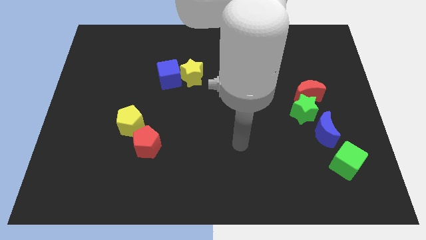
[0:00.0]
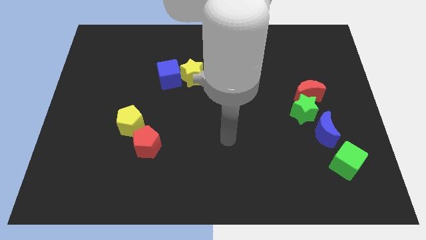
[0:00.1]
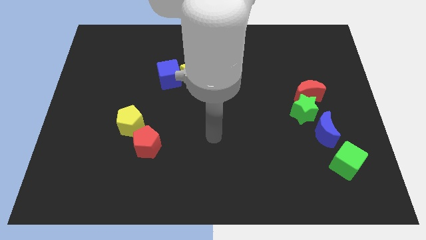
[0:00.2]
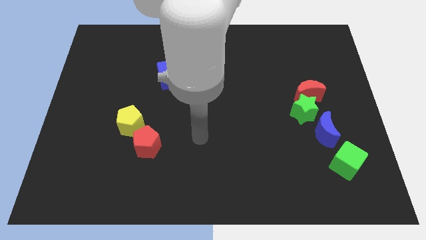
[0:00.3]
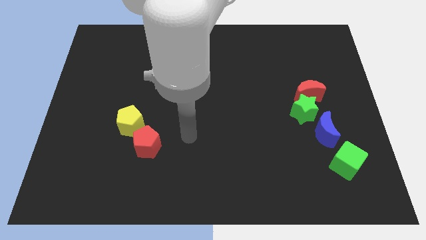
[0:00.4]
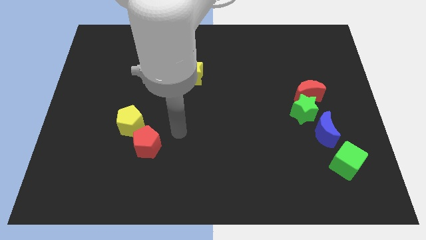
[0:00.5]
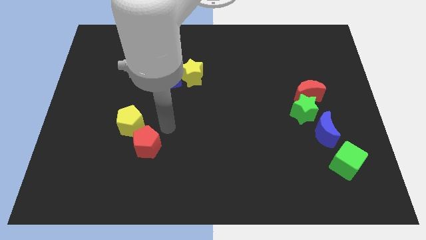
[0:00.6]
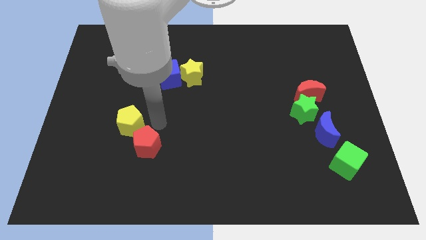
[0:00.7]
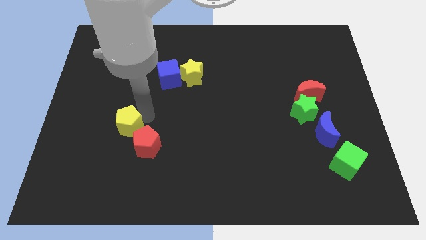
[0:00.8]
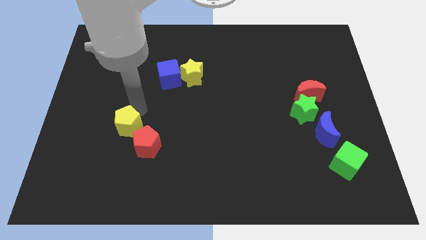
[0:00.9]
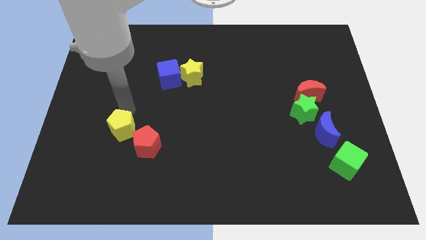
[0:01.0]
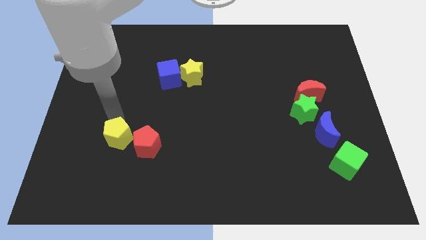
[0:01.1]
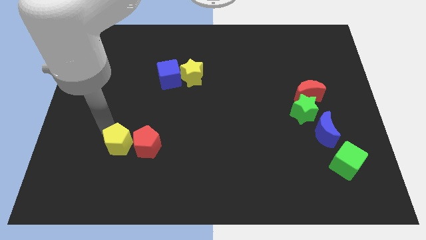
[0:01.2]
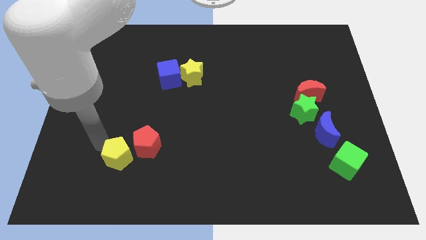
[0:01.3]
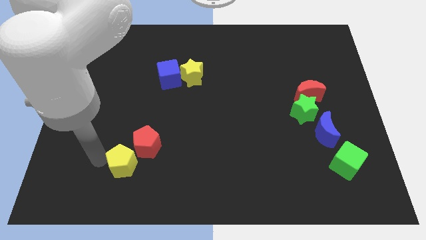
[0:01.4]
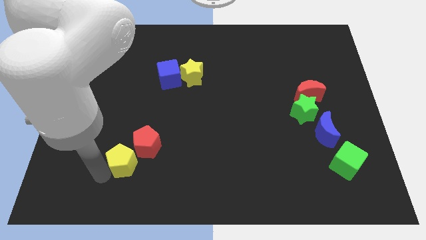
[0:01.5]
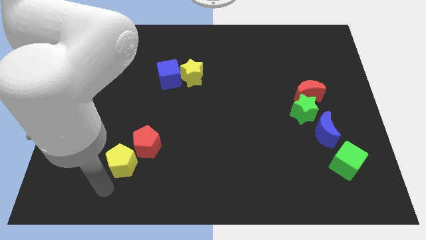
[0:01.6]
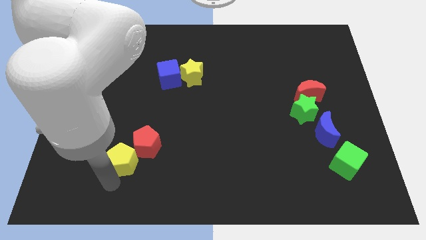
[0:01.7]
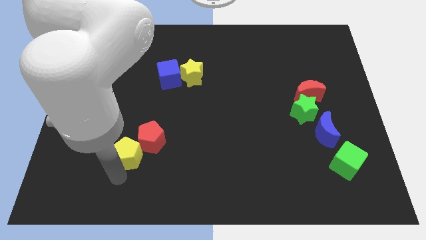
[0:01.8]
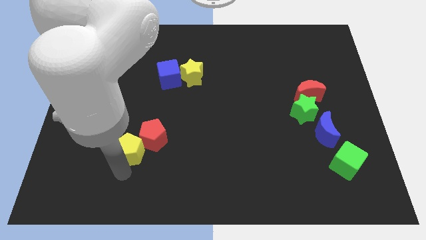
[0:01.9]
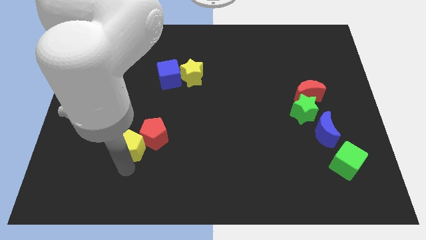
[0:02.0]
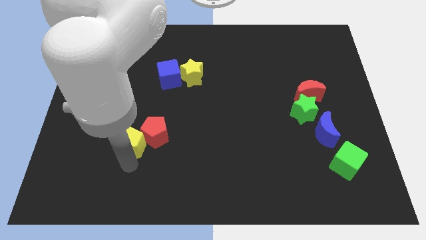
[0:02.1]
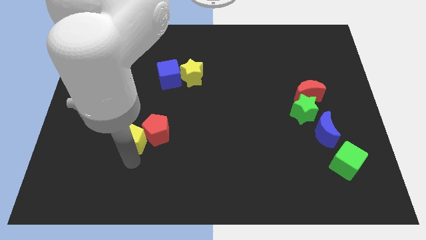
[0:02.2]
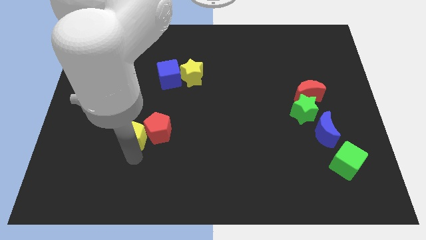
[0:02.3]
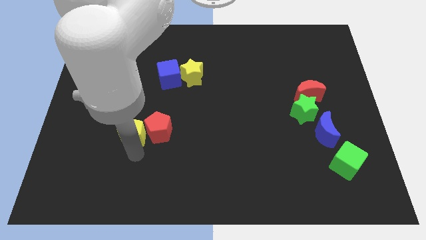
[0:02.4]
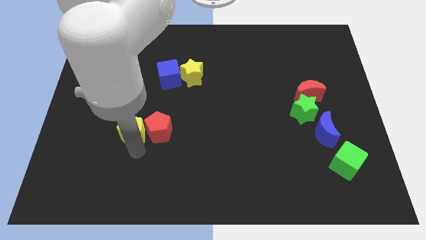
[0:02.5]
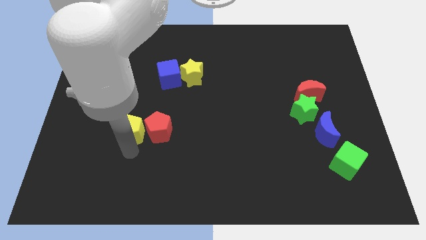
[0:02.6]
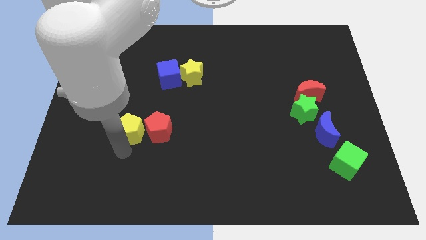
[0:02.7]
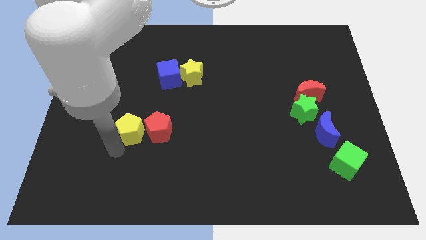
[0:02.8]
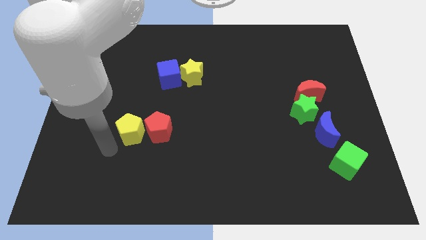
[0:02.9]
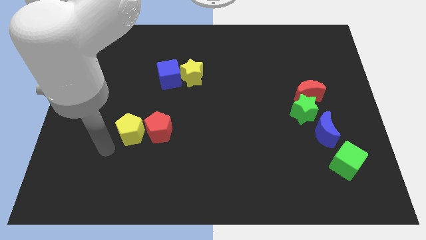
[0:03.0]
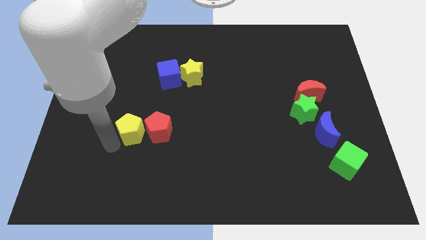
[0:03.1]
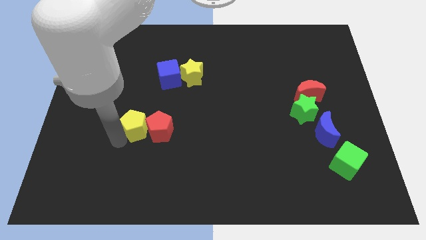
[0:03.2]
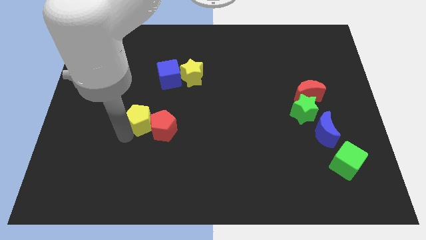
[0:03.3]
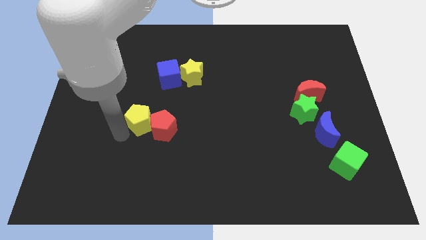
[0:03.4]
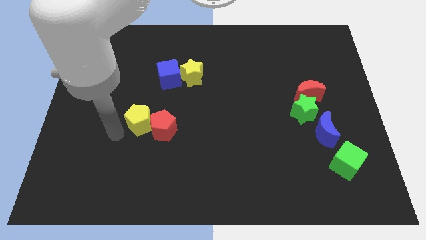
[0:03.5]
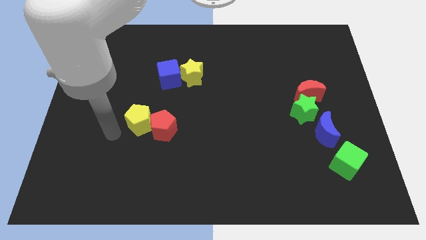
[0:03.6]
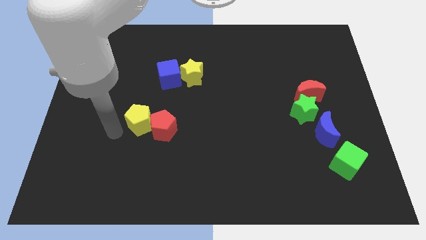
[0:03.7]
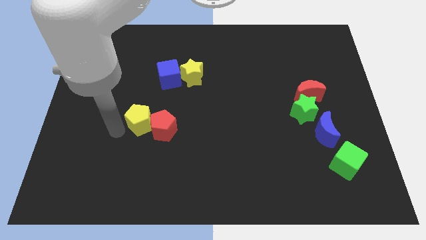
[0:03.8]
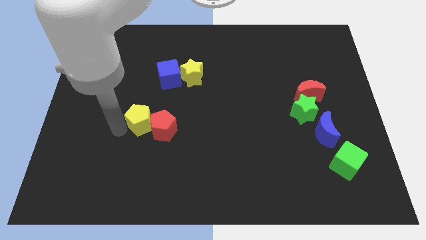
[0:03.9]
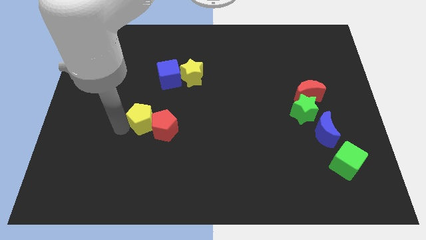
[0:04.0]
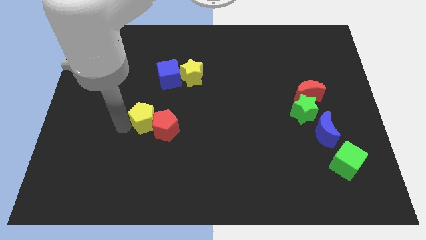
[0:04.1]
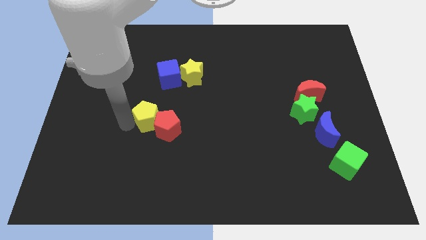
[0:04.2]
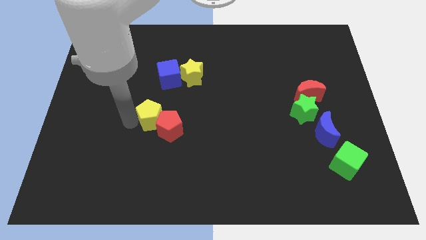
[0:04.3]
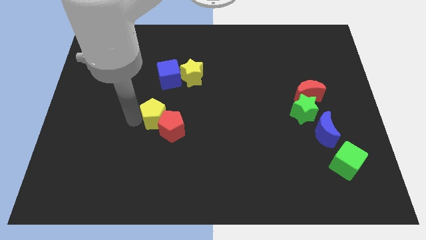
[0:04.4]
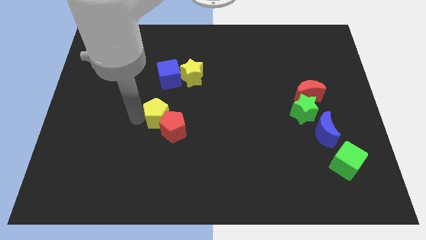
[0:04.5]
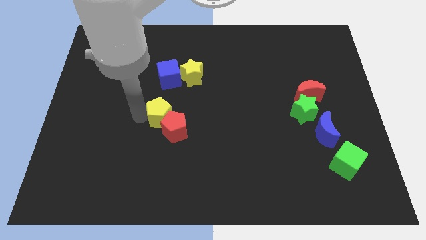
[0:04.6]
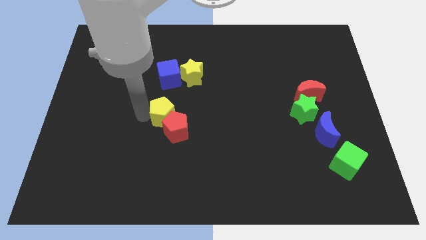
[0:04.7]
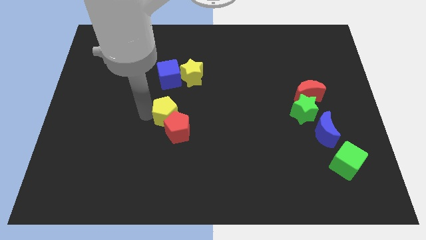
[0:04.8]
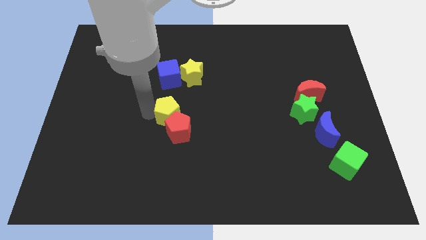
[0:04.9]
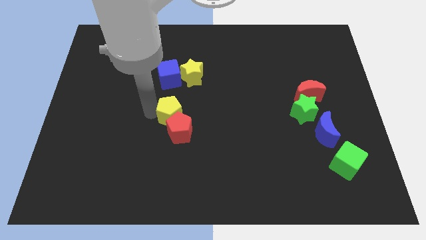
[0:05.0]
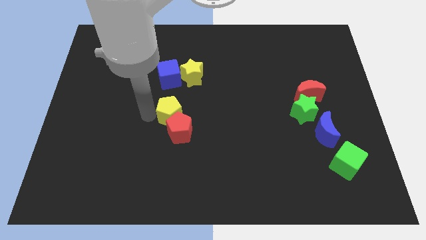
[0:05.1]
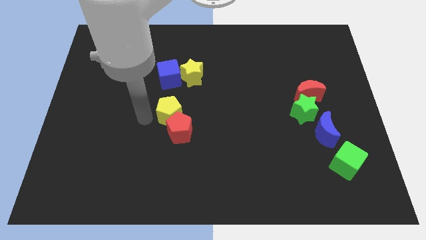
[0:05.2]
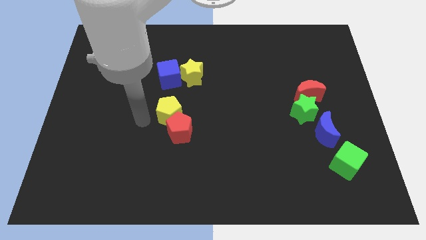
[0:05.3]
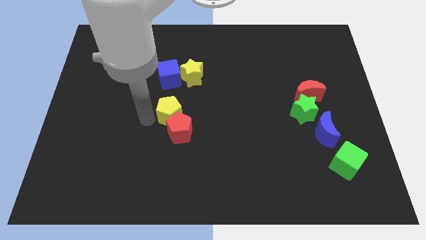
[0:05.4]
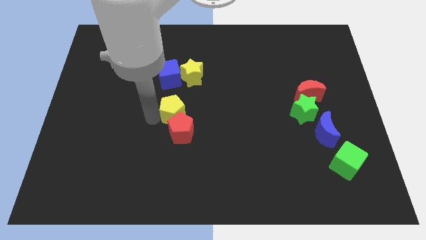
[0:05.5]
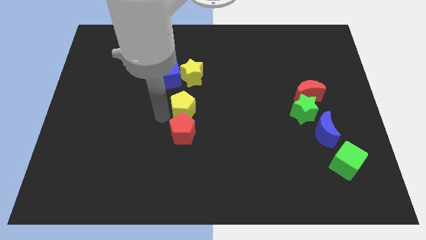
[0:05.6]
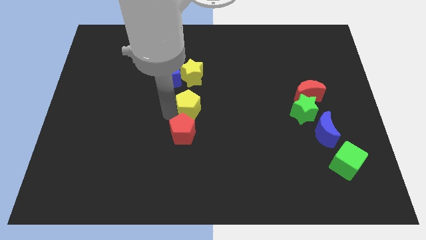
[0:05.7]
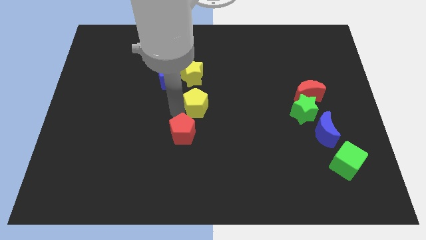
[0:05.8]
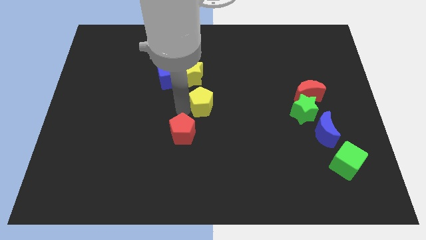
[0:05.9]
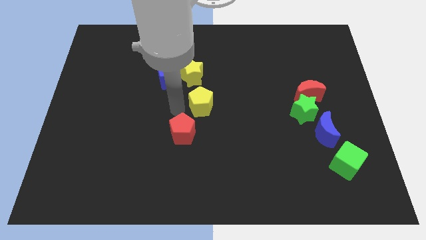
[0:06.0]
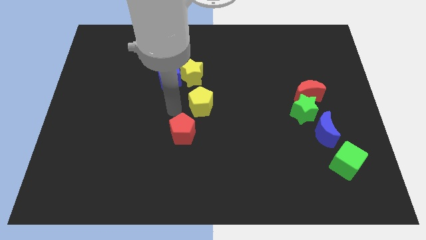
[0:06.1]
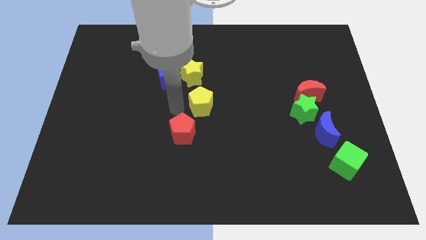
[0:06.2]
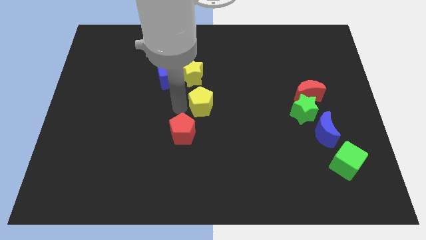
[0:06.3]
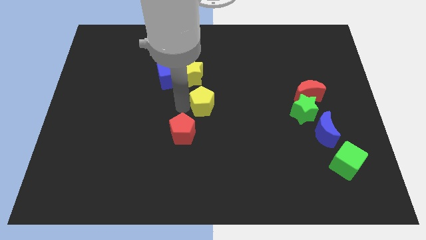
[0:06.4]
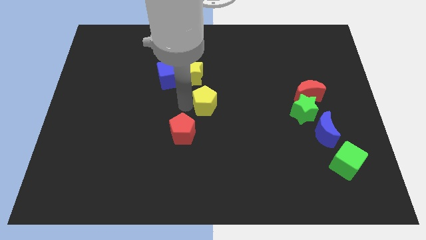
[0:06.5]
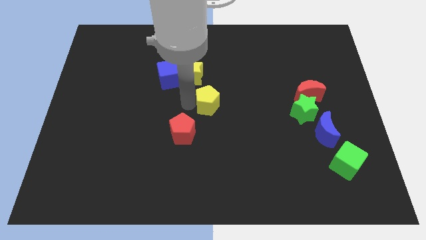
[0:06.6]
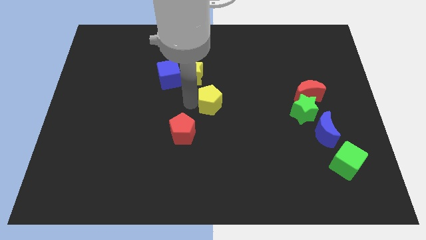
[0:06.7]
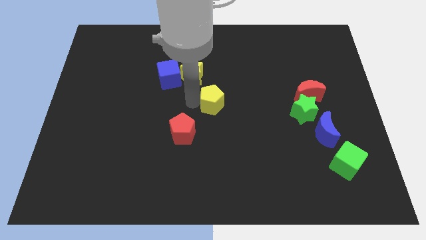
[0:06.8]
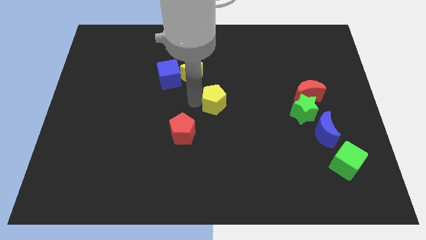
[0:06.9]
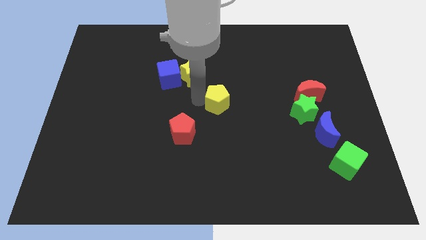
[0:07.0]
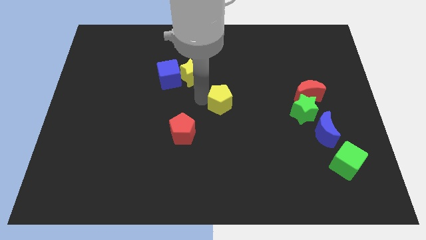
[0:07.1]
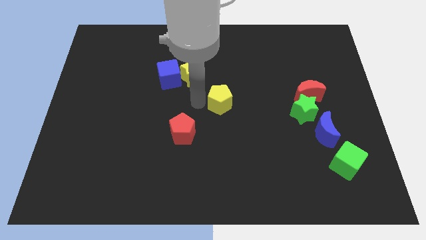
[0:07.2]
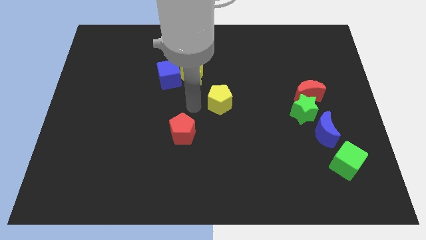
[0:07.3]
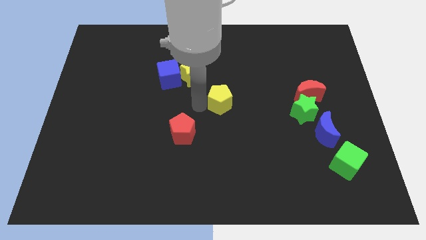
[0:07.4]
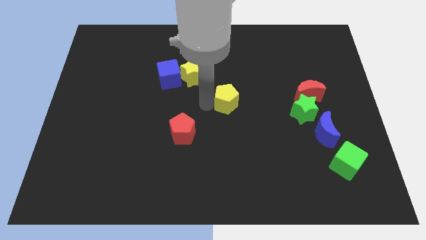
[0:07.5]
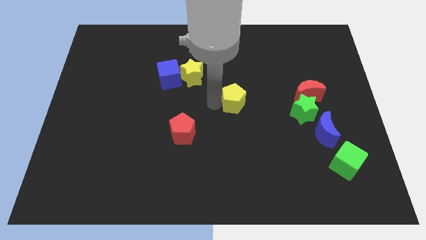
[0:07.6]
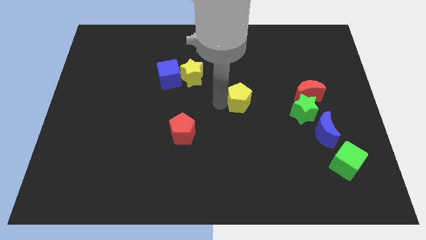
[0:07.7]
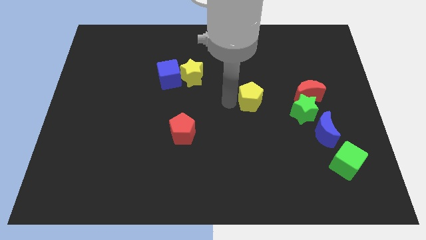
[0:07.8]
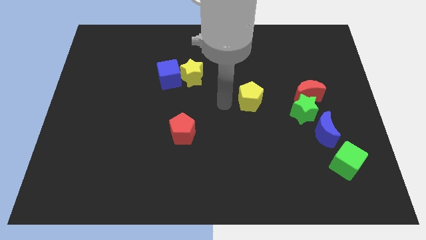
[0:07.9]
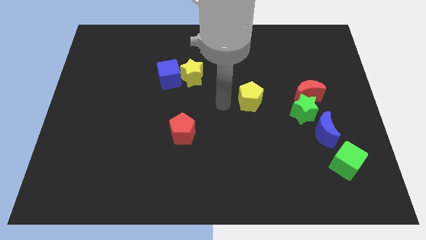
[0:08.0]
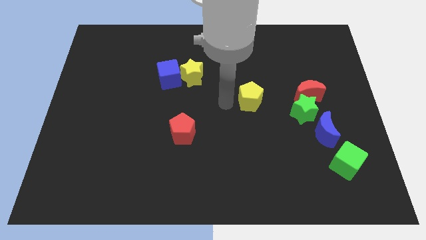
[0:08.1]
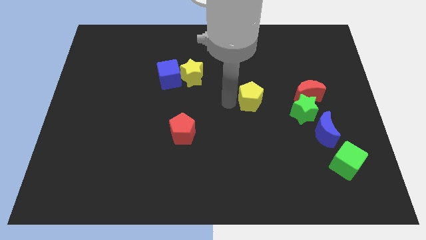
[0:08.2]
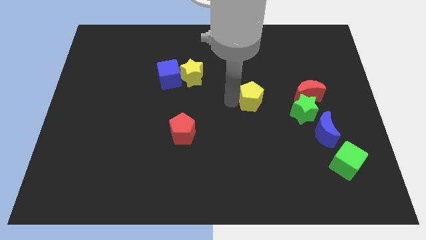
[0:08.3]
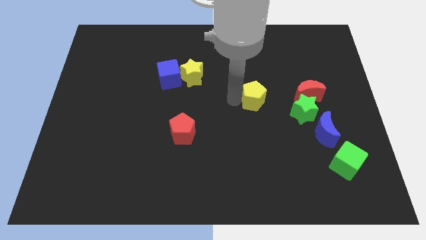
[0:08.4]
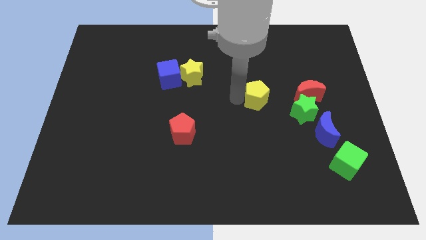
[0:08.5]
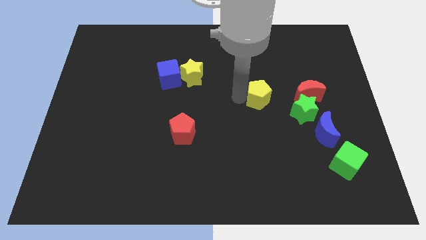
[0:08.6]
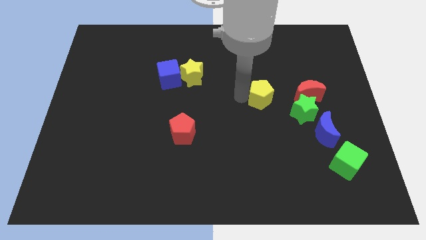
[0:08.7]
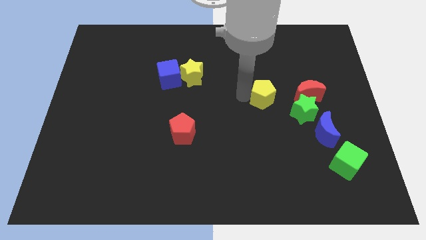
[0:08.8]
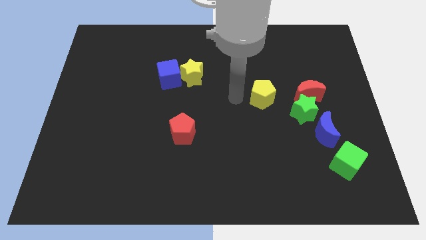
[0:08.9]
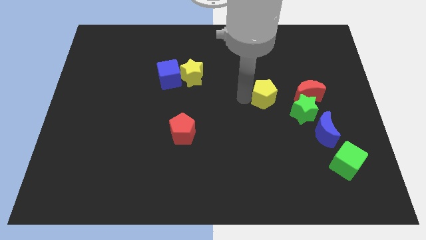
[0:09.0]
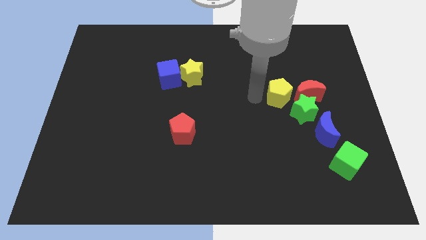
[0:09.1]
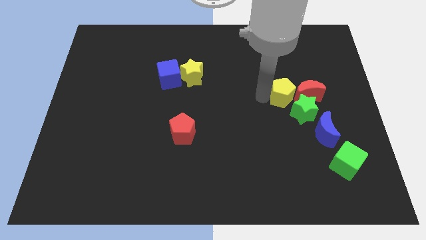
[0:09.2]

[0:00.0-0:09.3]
put the yellow pentagon towards the red moon
